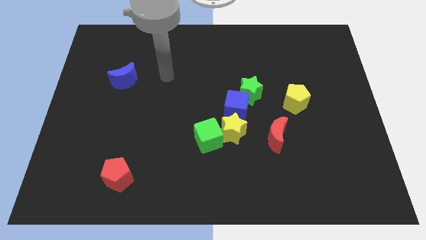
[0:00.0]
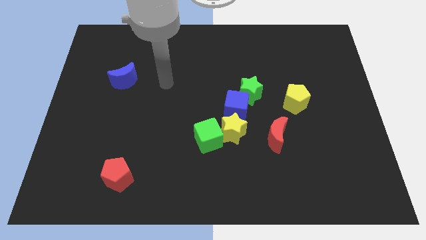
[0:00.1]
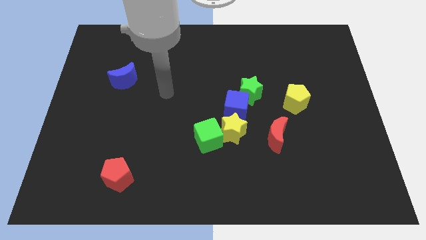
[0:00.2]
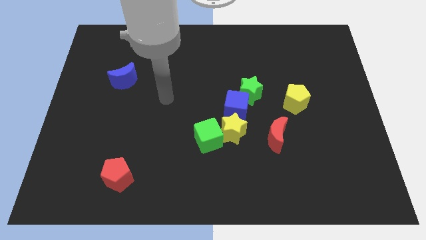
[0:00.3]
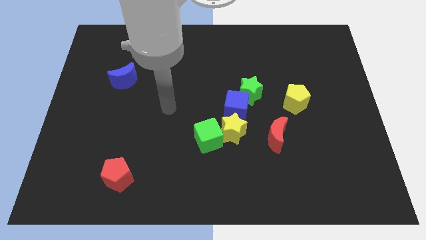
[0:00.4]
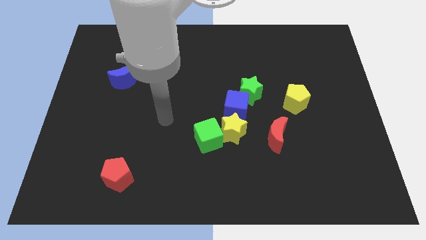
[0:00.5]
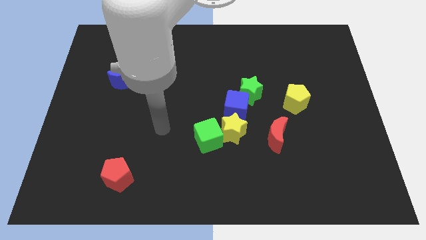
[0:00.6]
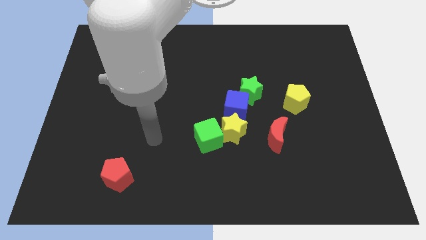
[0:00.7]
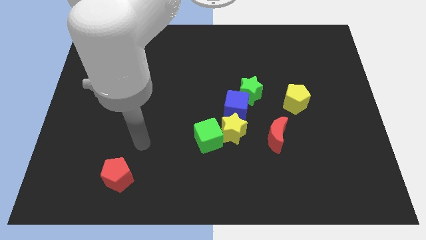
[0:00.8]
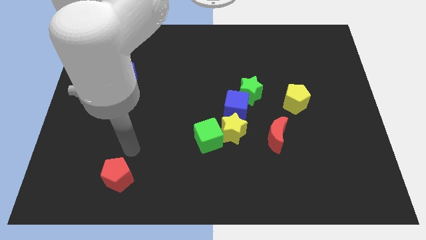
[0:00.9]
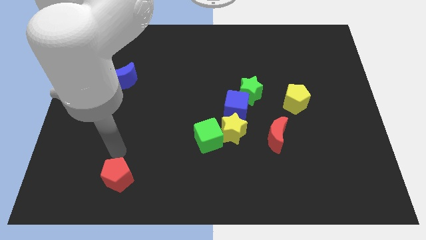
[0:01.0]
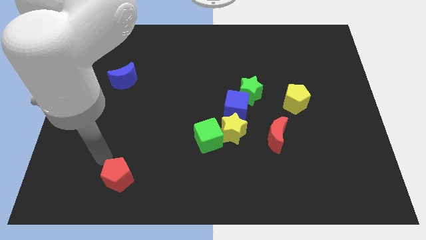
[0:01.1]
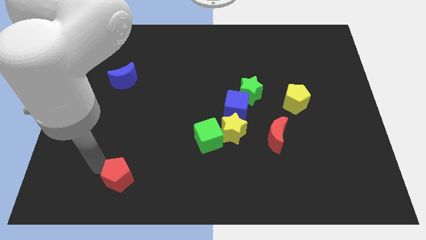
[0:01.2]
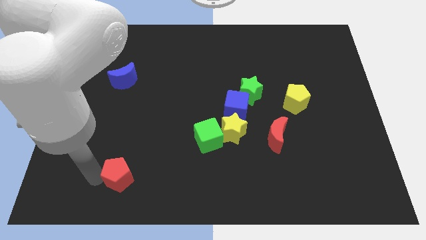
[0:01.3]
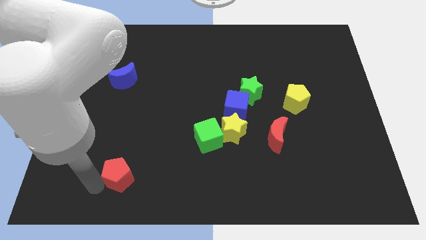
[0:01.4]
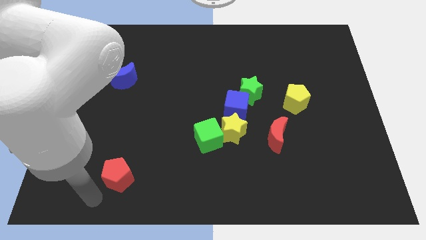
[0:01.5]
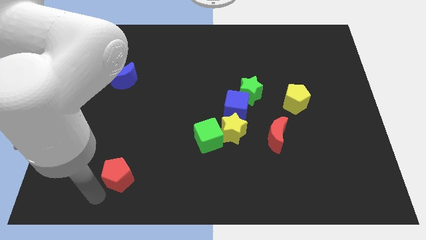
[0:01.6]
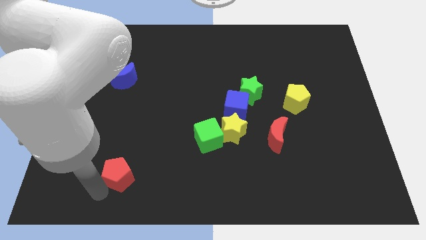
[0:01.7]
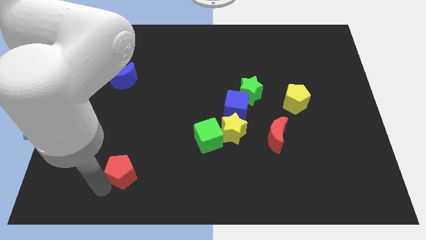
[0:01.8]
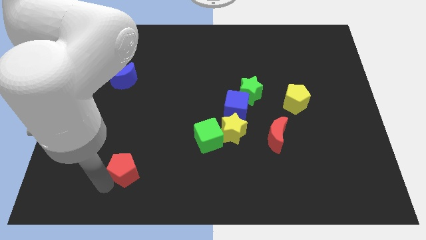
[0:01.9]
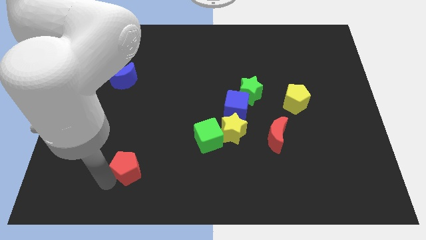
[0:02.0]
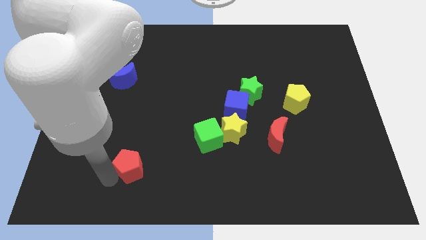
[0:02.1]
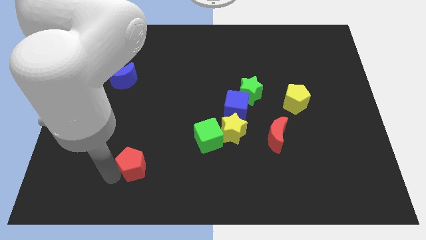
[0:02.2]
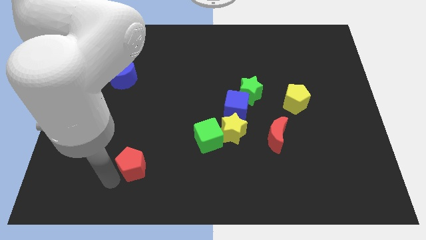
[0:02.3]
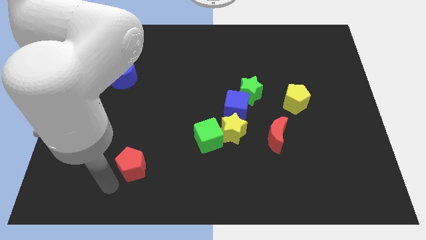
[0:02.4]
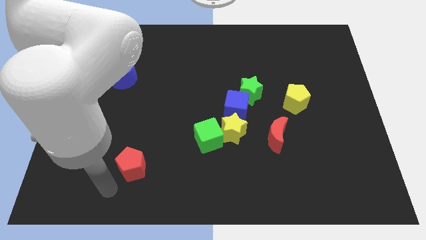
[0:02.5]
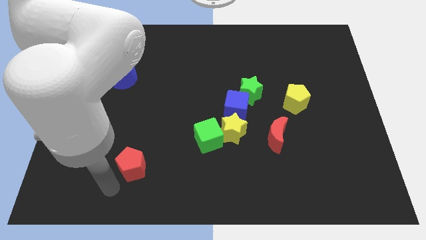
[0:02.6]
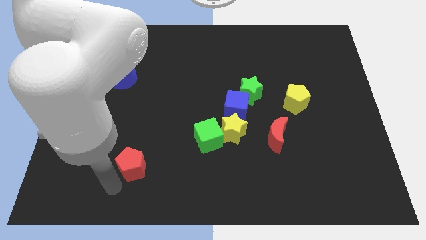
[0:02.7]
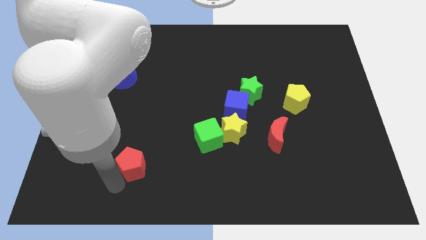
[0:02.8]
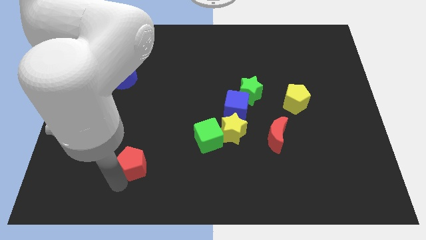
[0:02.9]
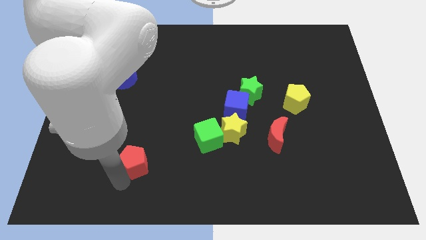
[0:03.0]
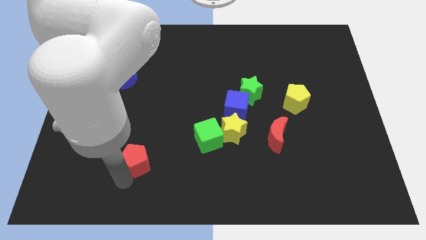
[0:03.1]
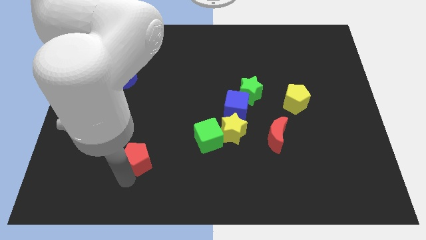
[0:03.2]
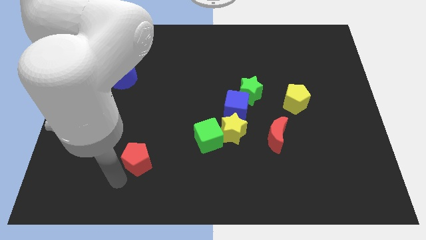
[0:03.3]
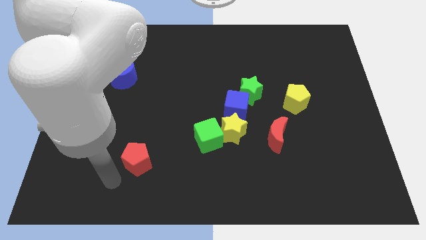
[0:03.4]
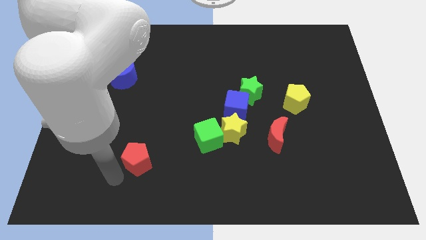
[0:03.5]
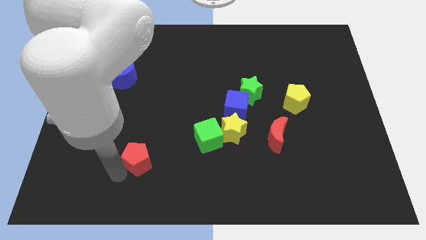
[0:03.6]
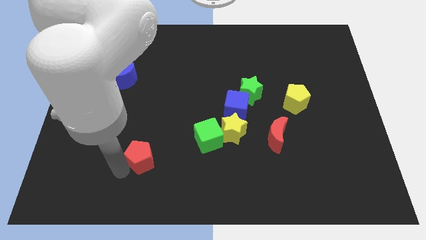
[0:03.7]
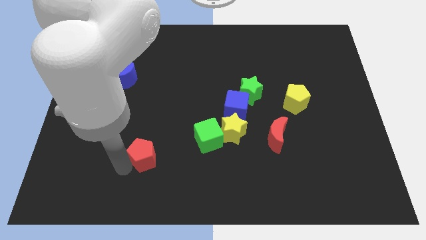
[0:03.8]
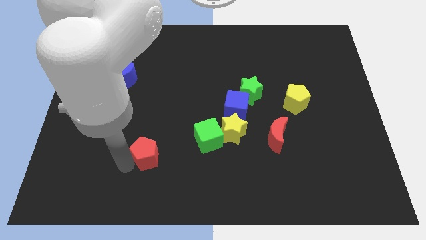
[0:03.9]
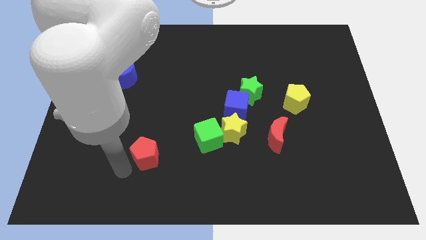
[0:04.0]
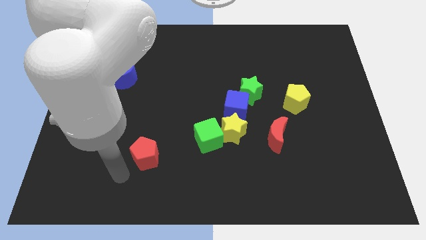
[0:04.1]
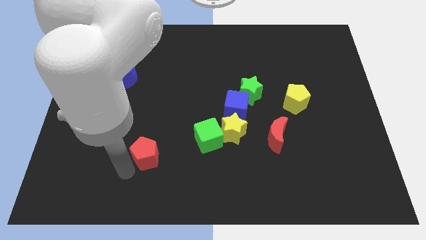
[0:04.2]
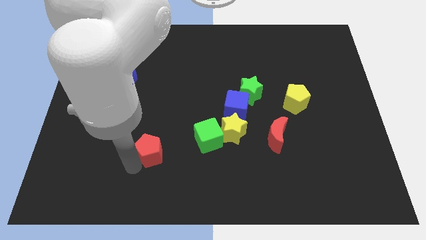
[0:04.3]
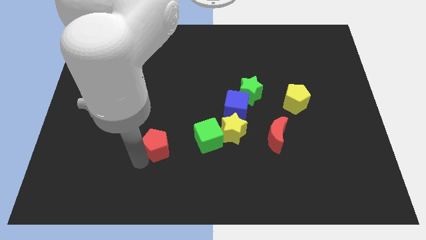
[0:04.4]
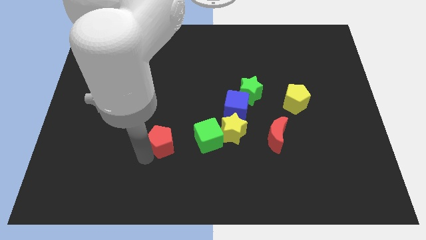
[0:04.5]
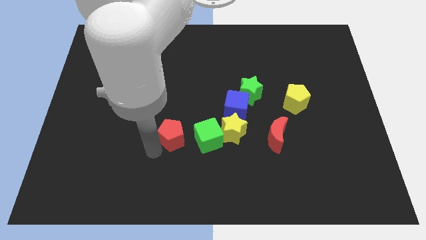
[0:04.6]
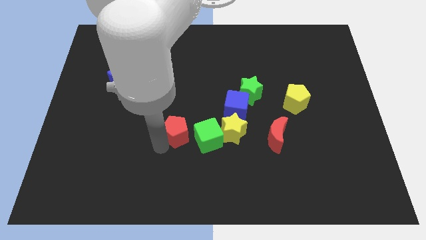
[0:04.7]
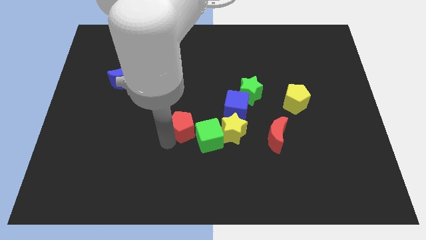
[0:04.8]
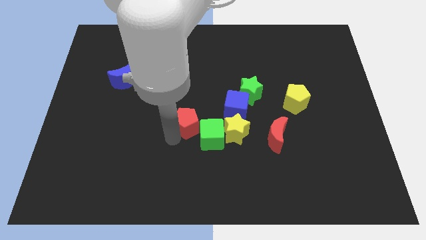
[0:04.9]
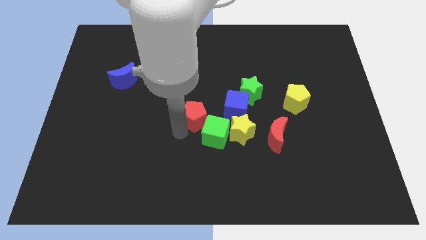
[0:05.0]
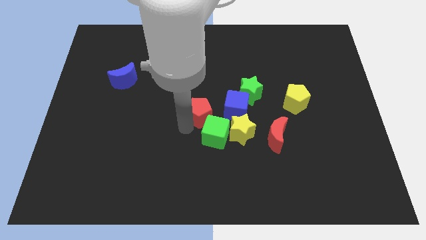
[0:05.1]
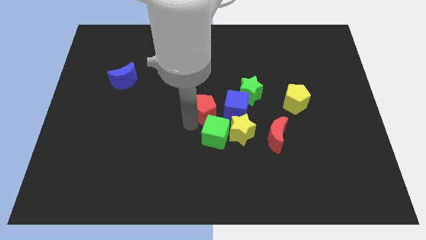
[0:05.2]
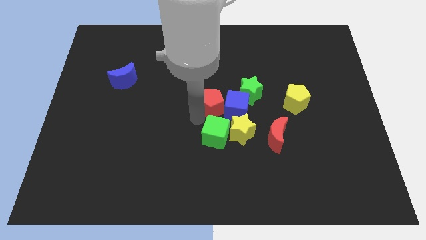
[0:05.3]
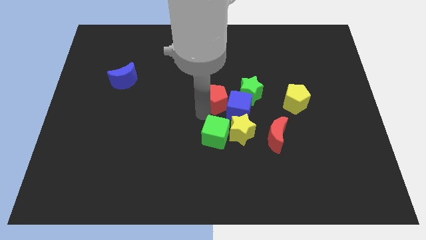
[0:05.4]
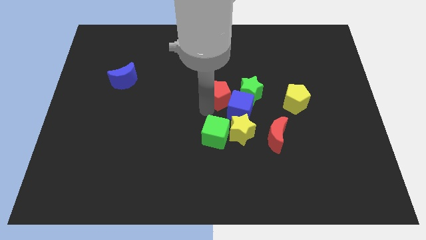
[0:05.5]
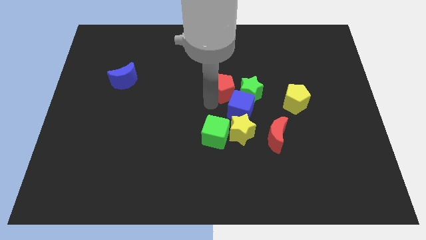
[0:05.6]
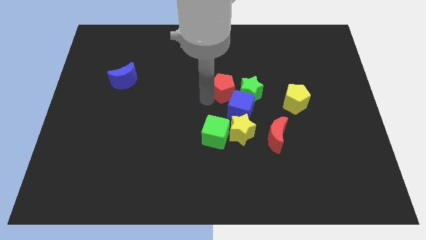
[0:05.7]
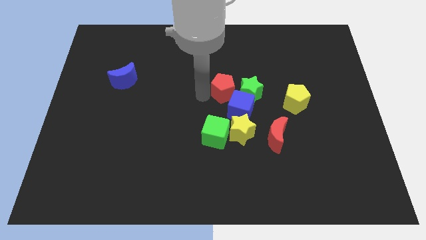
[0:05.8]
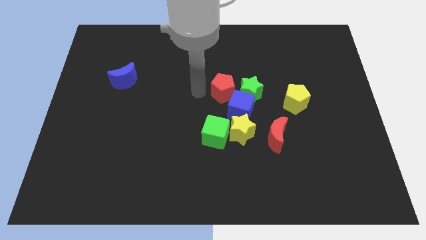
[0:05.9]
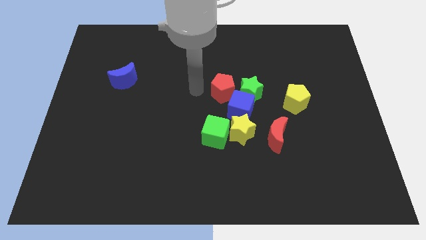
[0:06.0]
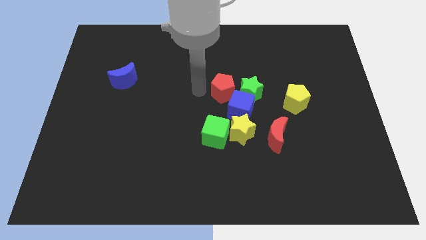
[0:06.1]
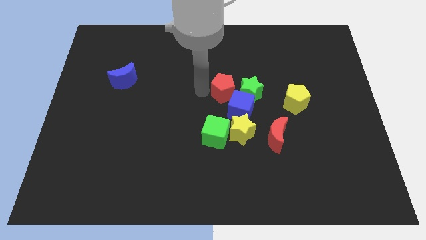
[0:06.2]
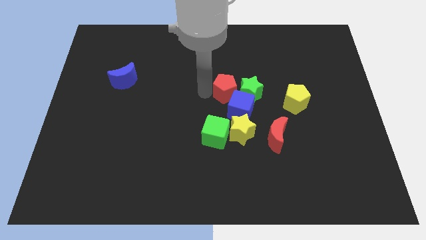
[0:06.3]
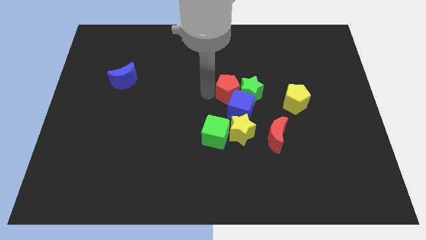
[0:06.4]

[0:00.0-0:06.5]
push the red pentagon to the green star

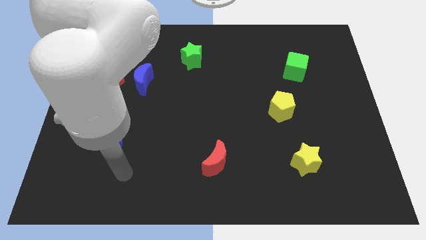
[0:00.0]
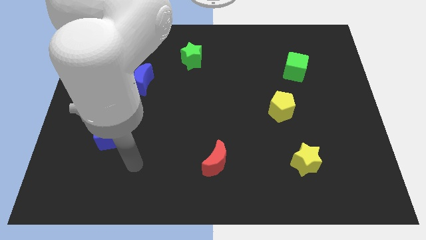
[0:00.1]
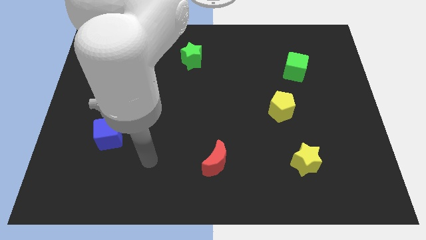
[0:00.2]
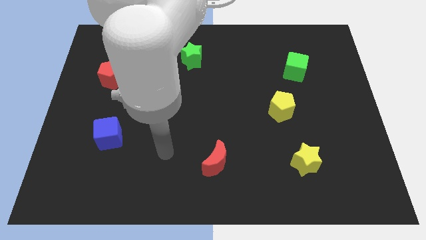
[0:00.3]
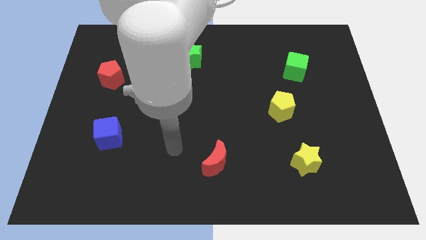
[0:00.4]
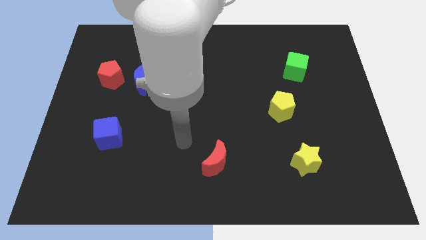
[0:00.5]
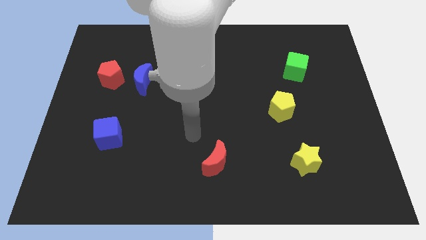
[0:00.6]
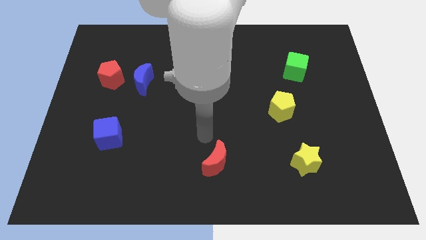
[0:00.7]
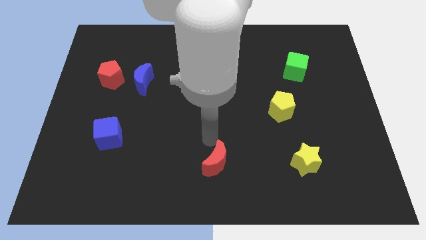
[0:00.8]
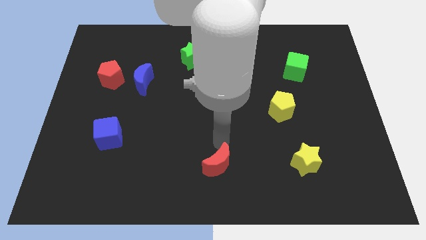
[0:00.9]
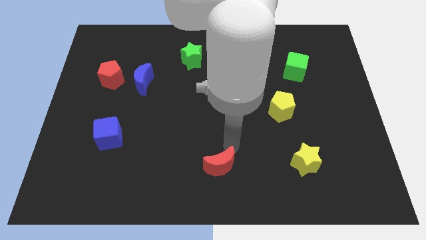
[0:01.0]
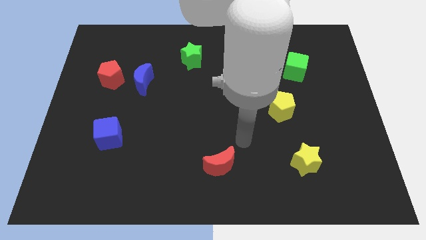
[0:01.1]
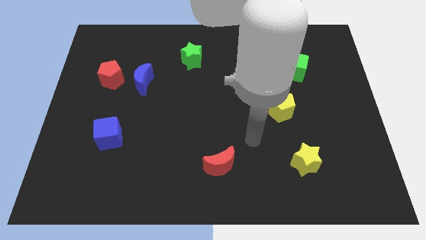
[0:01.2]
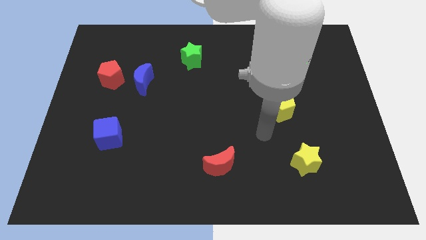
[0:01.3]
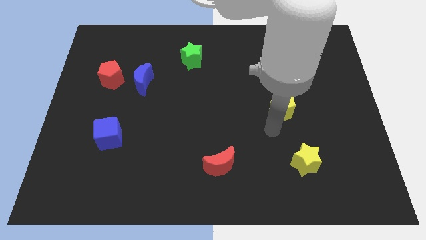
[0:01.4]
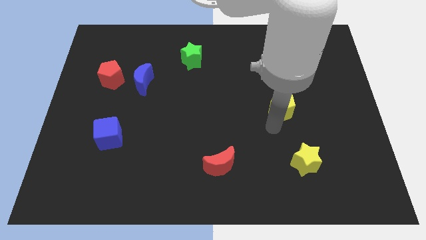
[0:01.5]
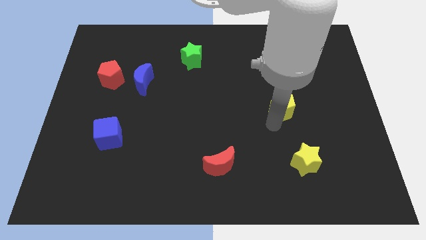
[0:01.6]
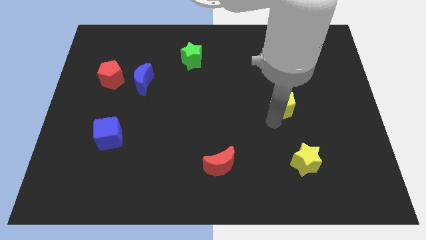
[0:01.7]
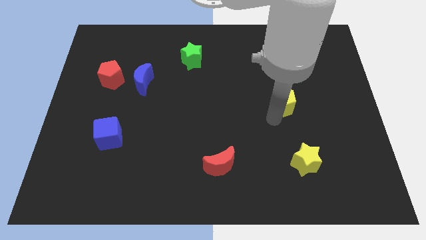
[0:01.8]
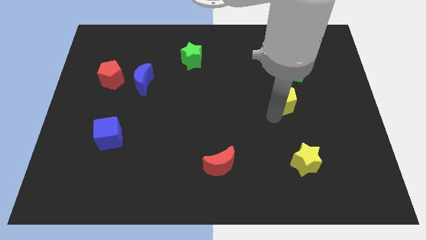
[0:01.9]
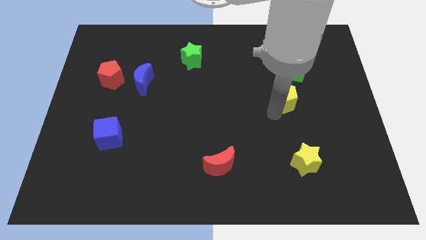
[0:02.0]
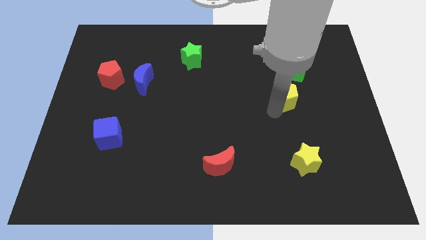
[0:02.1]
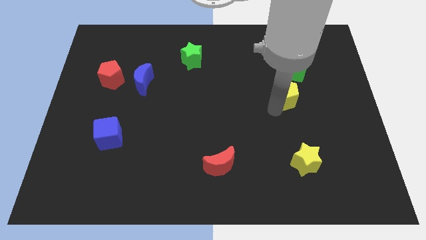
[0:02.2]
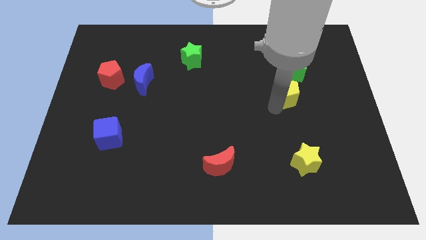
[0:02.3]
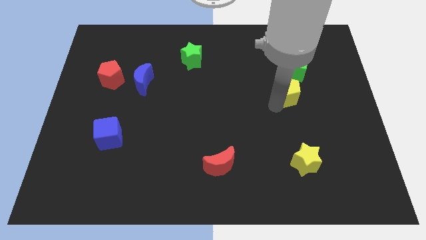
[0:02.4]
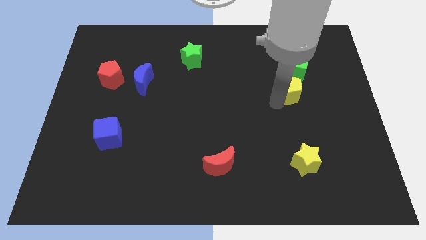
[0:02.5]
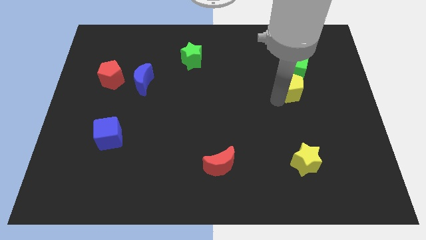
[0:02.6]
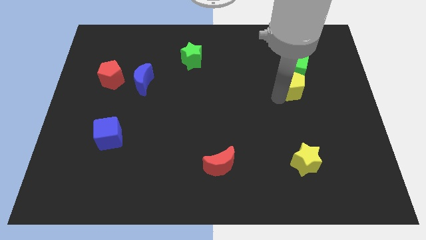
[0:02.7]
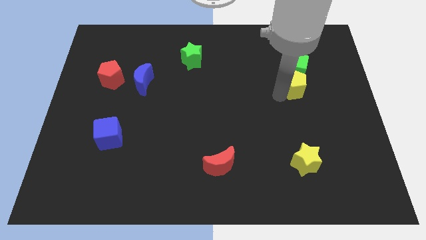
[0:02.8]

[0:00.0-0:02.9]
push the yellow pentagon close to the green cube
